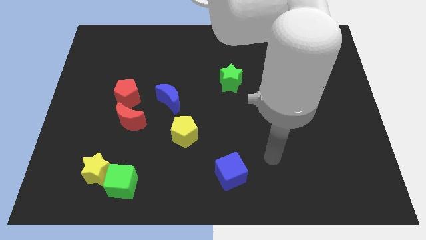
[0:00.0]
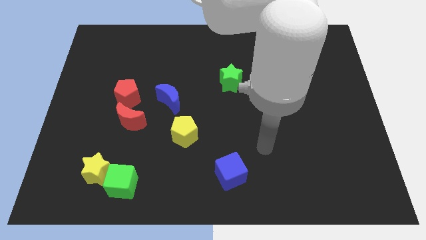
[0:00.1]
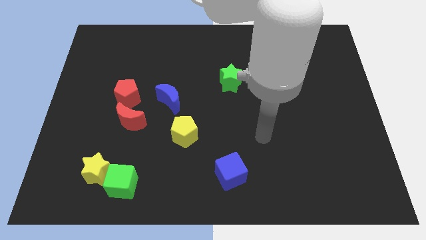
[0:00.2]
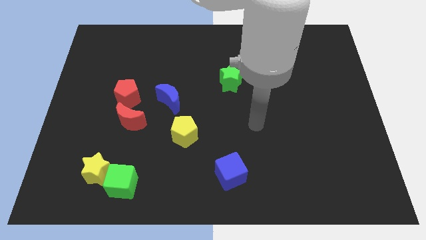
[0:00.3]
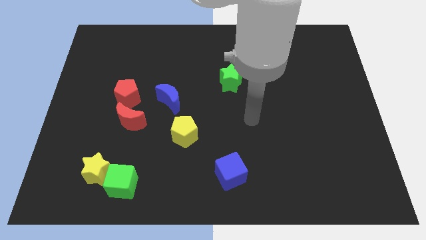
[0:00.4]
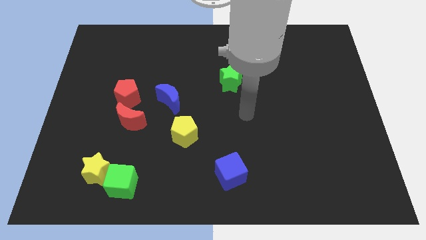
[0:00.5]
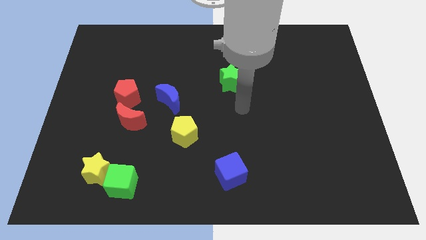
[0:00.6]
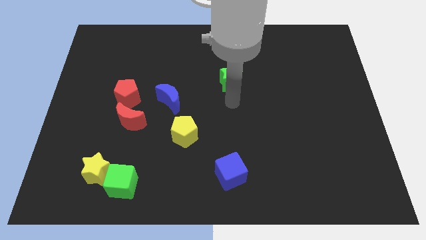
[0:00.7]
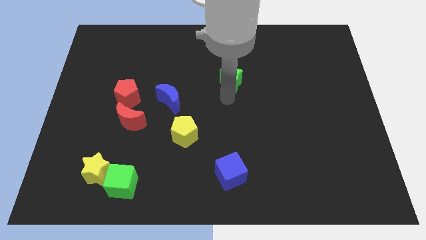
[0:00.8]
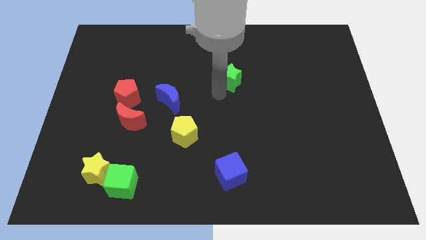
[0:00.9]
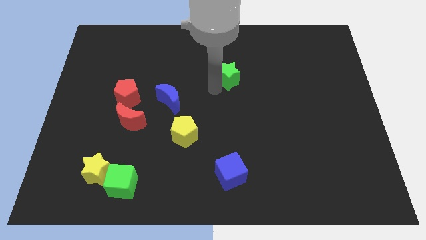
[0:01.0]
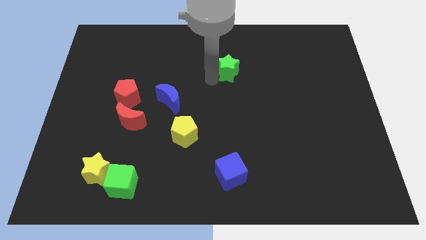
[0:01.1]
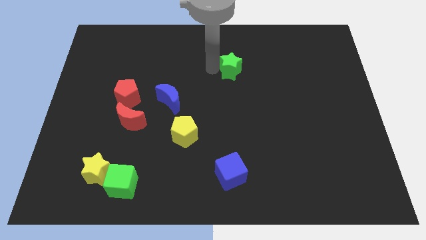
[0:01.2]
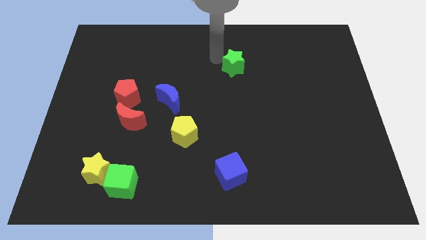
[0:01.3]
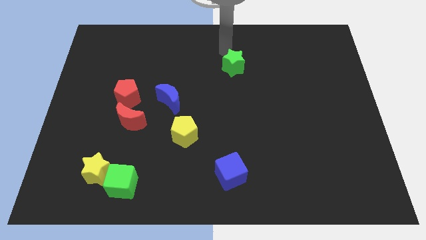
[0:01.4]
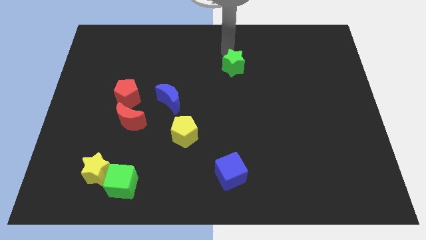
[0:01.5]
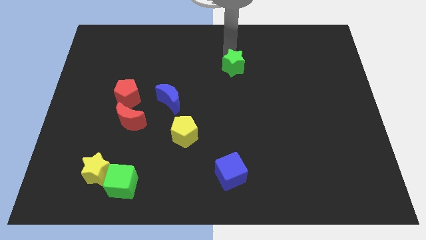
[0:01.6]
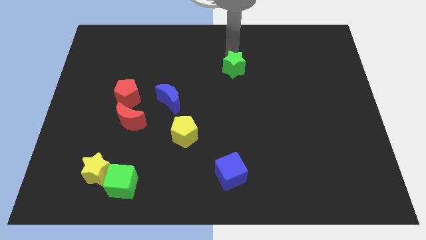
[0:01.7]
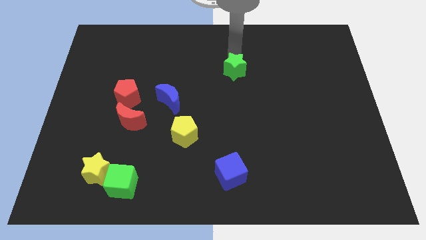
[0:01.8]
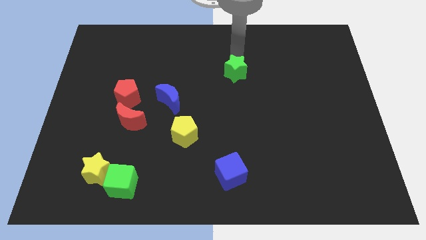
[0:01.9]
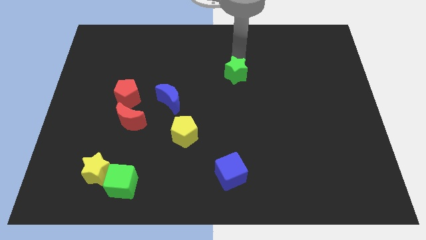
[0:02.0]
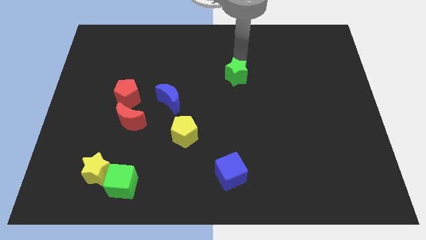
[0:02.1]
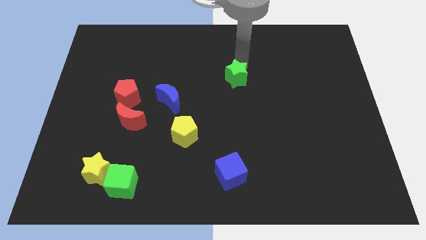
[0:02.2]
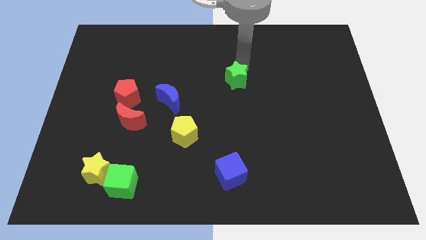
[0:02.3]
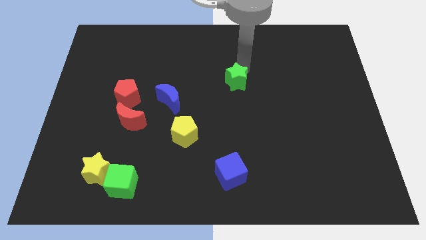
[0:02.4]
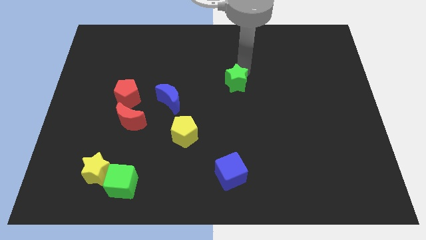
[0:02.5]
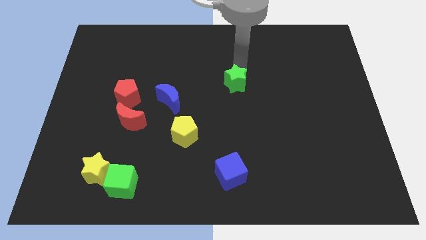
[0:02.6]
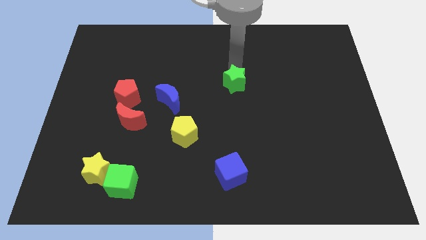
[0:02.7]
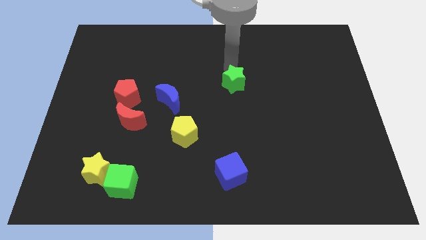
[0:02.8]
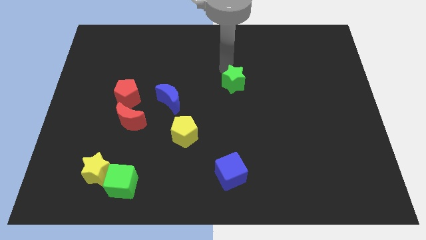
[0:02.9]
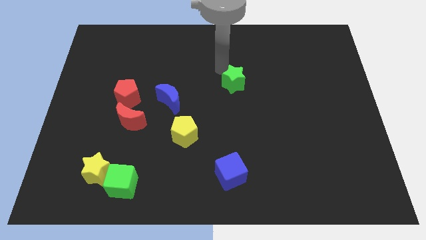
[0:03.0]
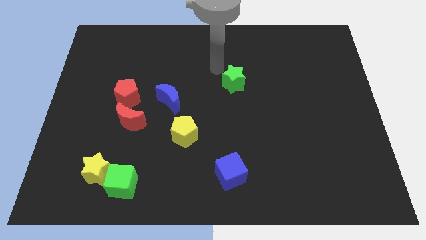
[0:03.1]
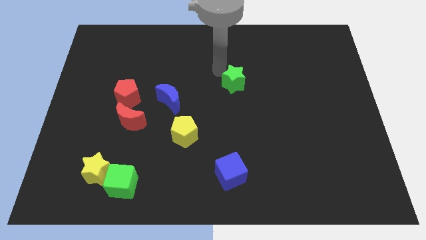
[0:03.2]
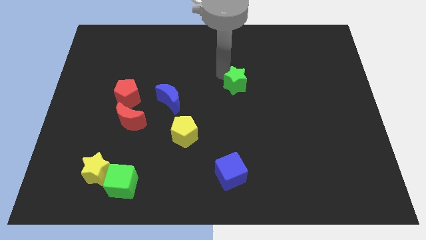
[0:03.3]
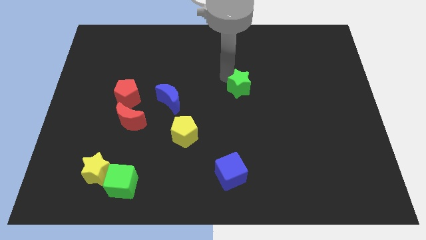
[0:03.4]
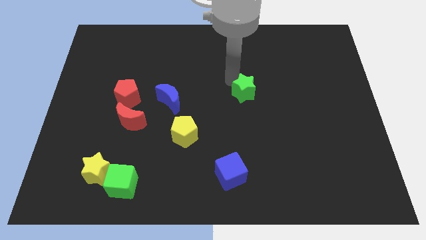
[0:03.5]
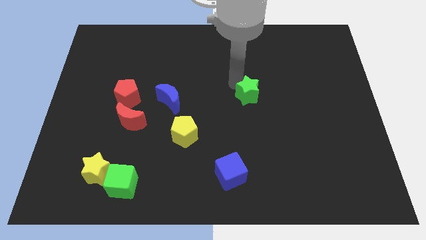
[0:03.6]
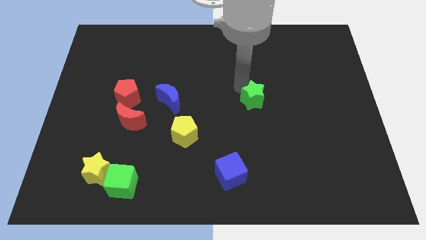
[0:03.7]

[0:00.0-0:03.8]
move the green star a bit downwards and to the right diagonally

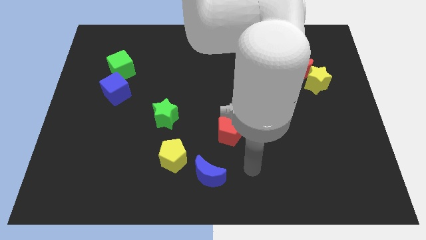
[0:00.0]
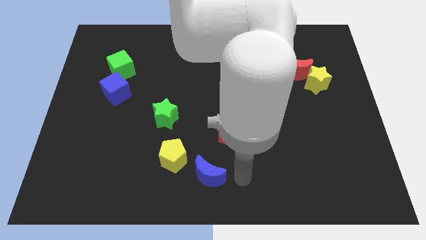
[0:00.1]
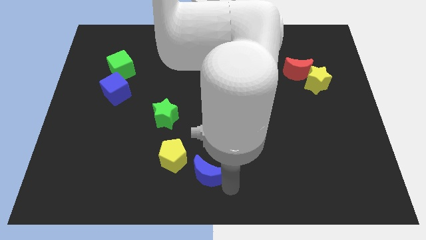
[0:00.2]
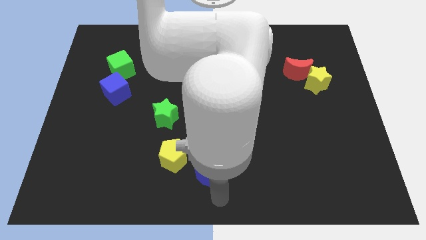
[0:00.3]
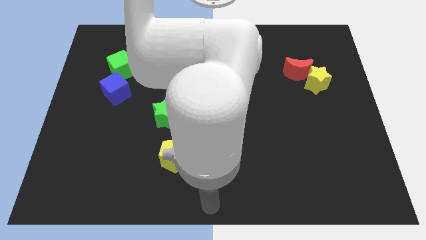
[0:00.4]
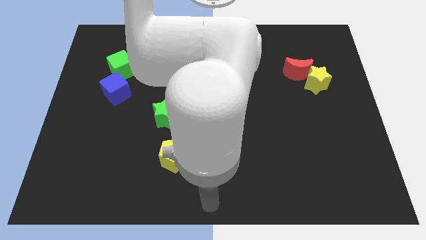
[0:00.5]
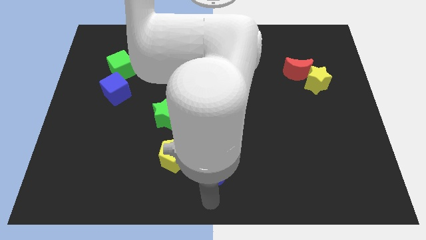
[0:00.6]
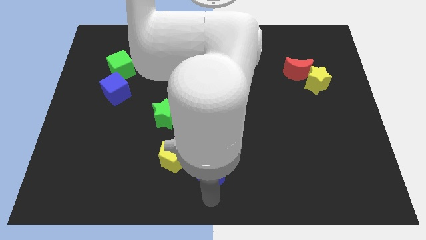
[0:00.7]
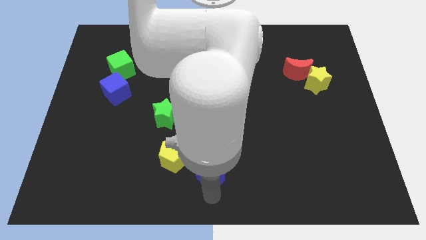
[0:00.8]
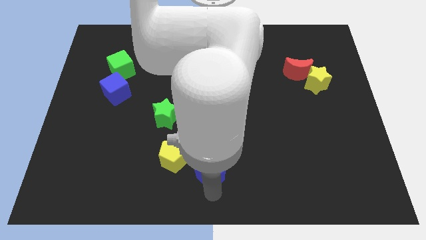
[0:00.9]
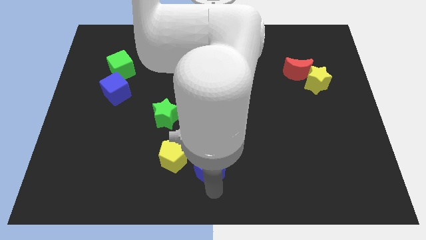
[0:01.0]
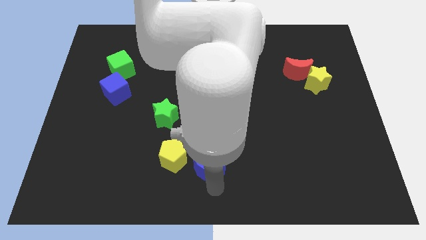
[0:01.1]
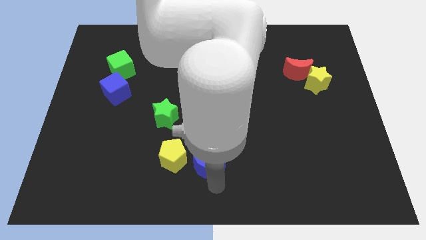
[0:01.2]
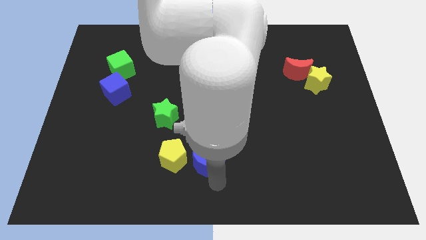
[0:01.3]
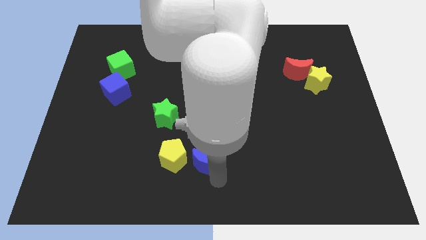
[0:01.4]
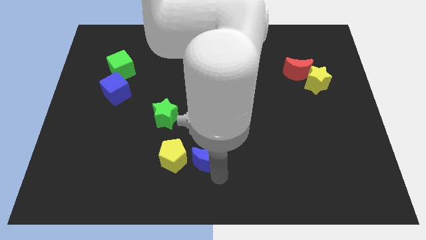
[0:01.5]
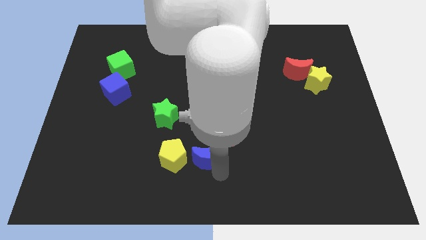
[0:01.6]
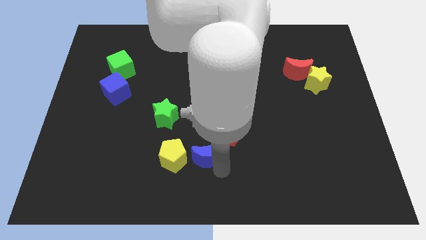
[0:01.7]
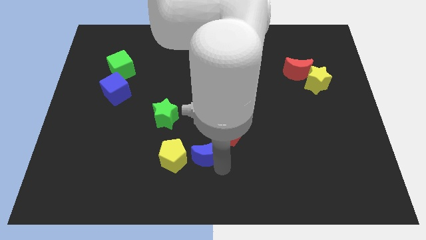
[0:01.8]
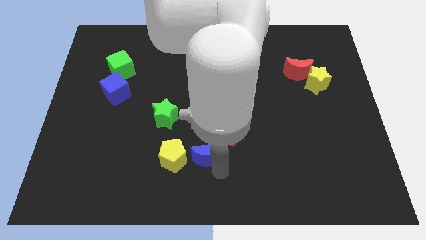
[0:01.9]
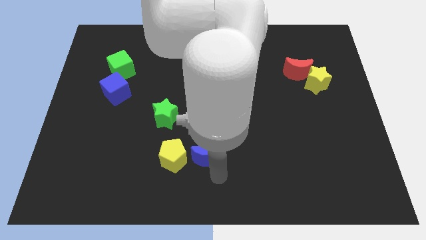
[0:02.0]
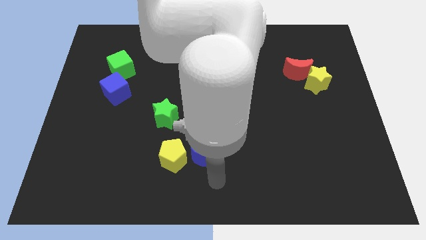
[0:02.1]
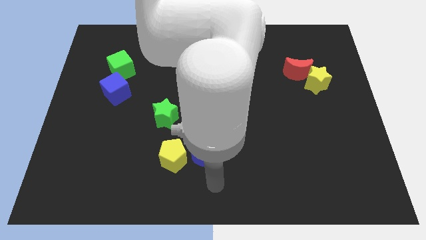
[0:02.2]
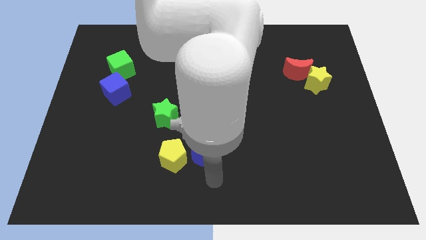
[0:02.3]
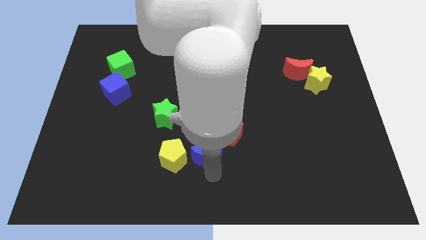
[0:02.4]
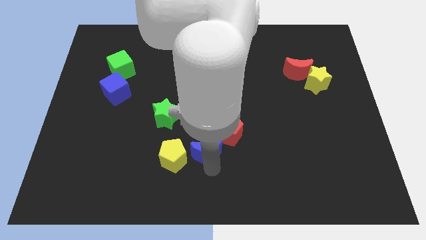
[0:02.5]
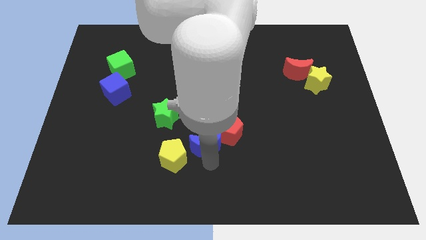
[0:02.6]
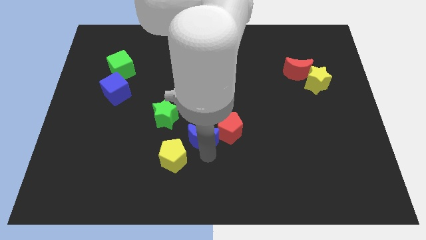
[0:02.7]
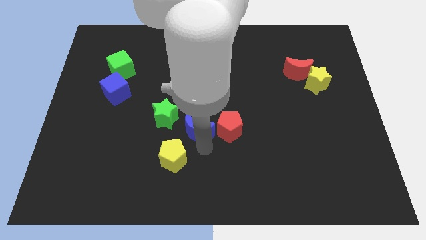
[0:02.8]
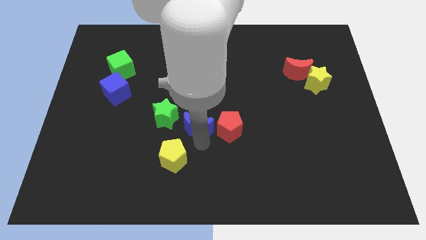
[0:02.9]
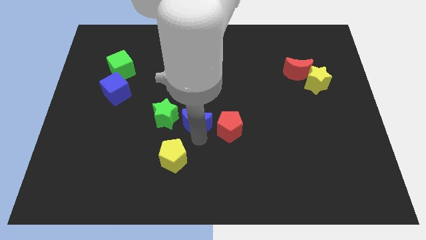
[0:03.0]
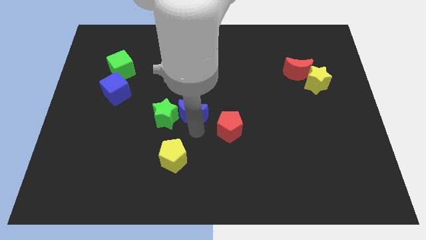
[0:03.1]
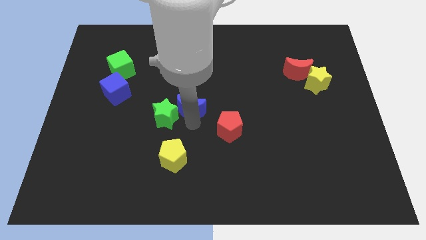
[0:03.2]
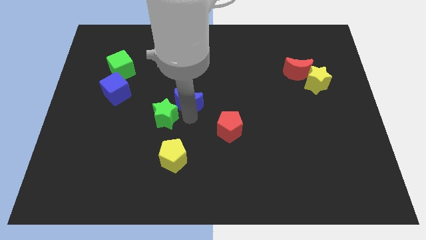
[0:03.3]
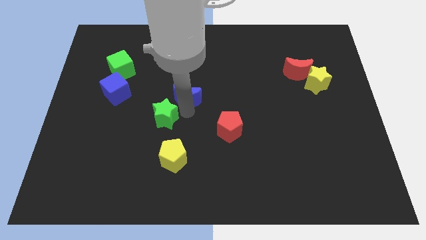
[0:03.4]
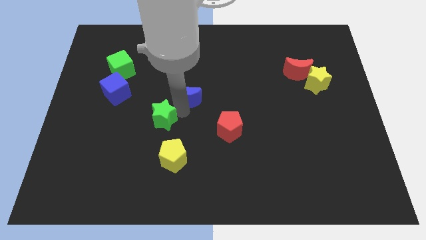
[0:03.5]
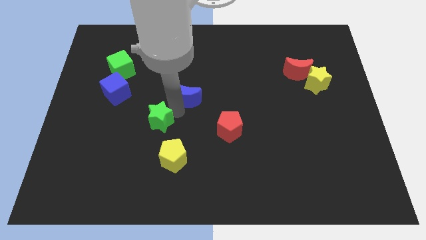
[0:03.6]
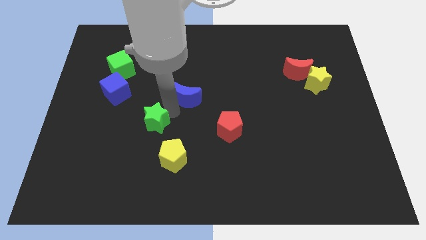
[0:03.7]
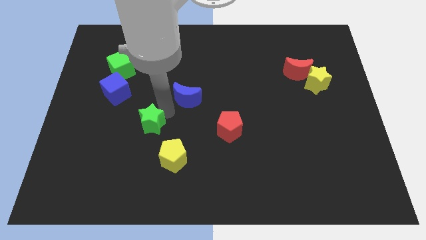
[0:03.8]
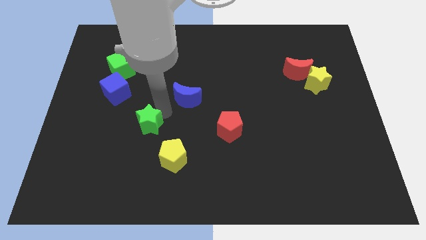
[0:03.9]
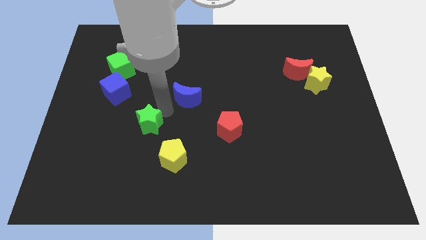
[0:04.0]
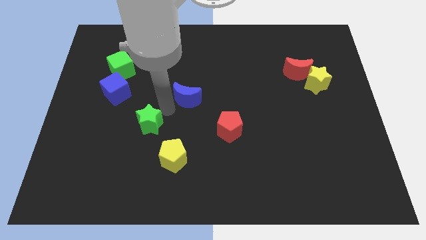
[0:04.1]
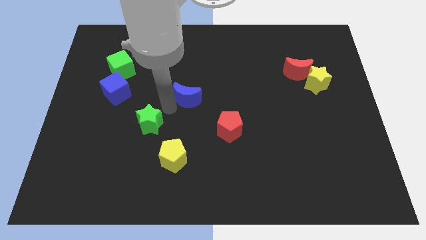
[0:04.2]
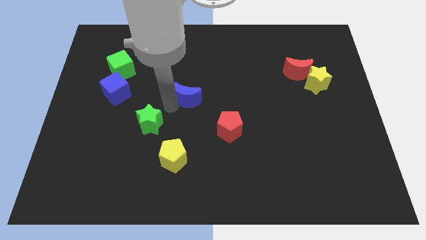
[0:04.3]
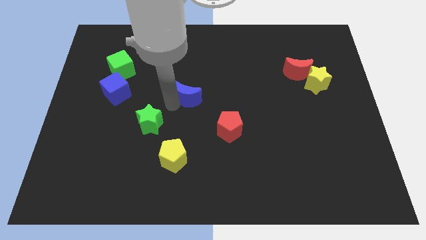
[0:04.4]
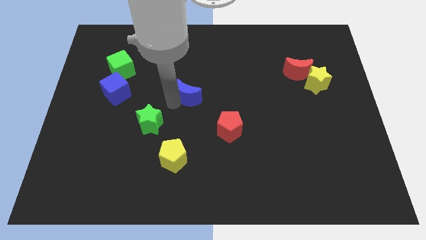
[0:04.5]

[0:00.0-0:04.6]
move the blue moon up
